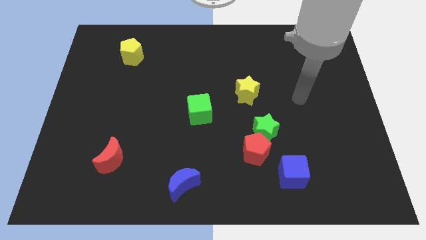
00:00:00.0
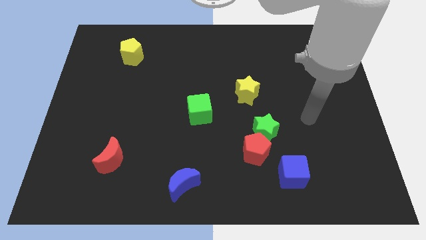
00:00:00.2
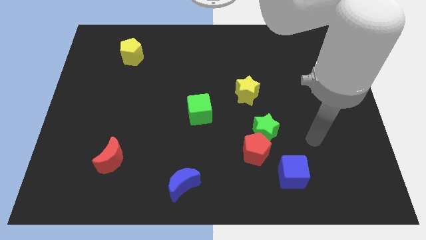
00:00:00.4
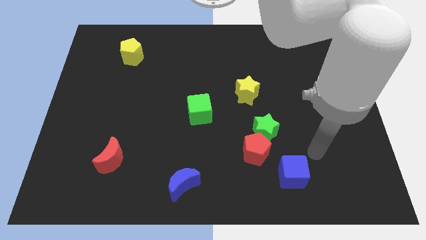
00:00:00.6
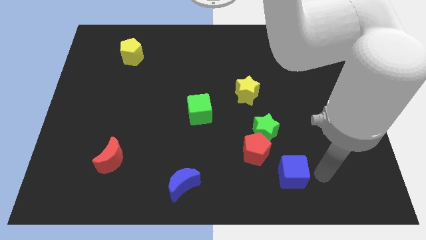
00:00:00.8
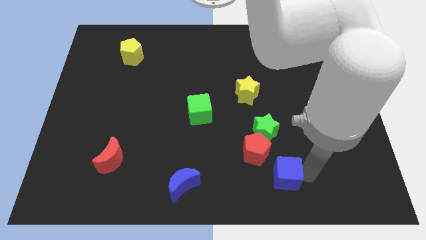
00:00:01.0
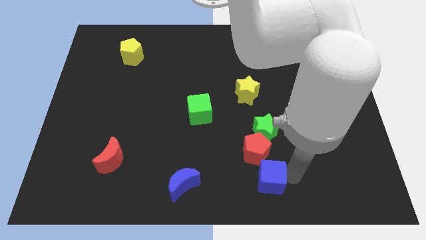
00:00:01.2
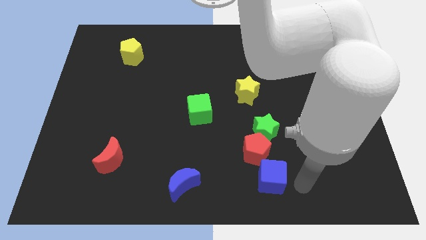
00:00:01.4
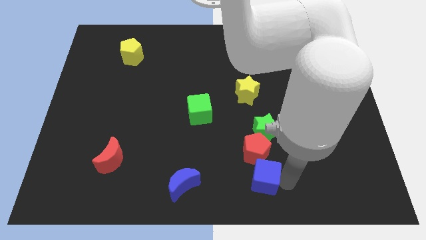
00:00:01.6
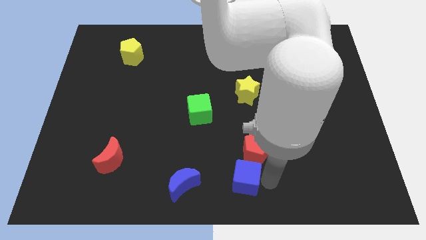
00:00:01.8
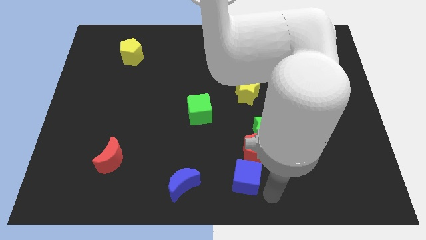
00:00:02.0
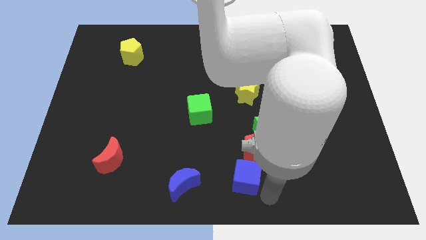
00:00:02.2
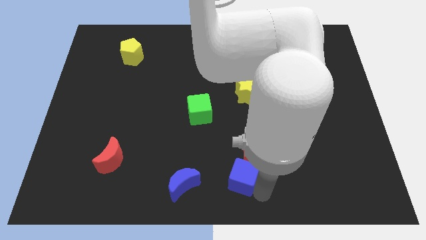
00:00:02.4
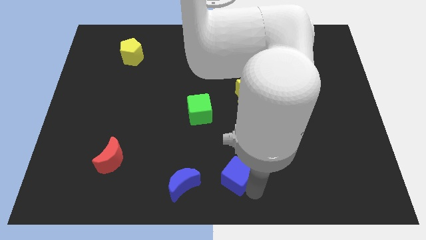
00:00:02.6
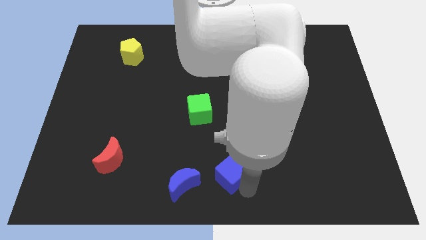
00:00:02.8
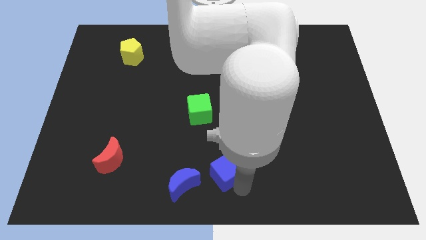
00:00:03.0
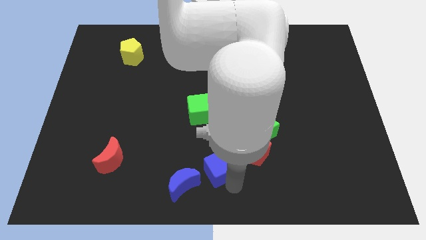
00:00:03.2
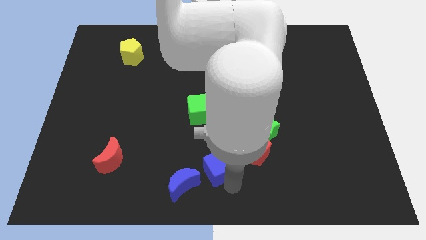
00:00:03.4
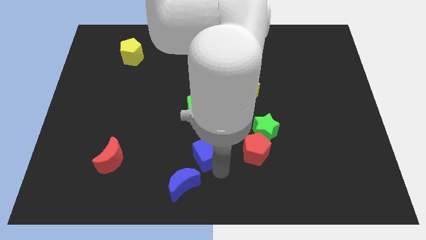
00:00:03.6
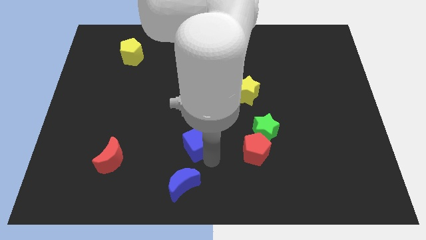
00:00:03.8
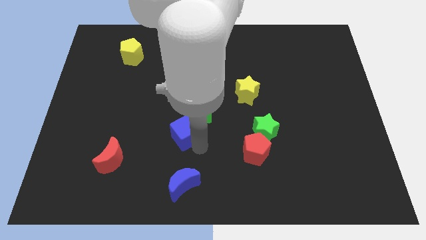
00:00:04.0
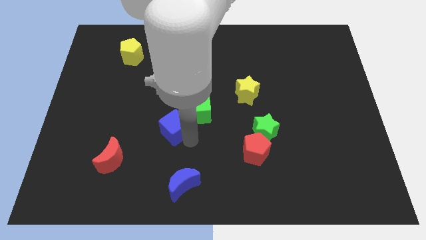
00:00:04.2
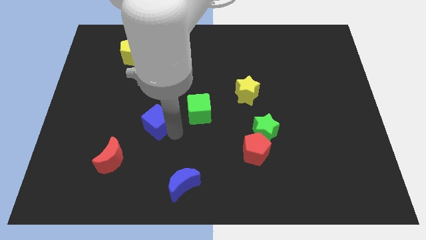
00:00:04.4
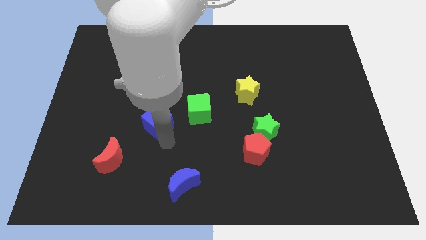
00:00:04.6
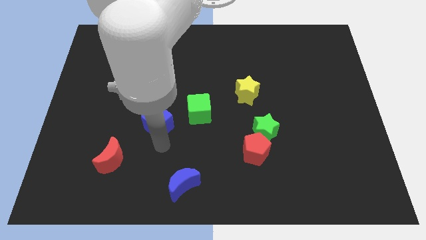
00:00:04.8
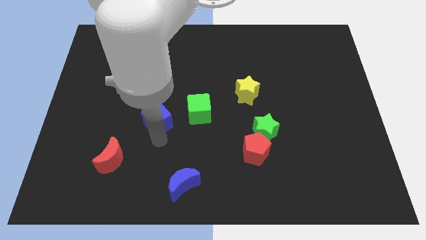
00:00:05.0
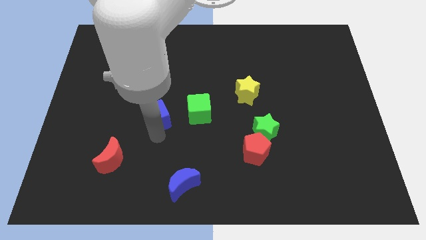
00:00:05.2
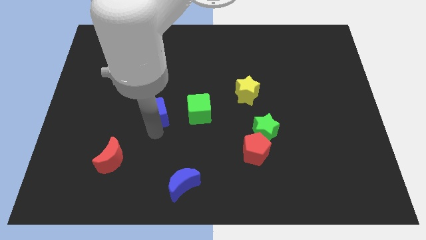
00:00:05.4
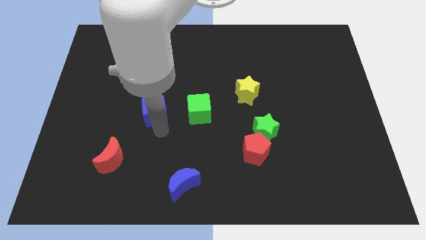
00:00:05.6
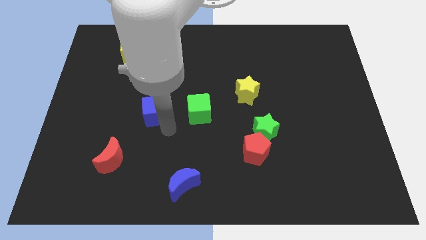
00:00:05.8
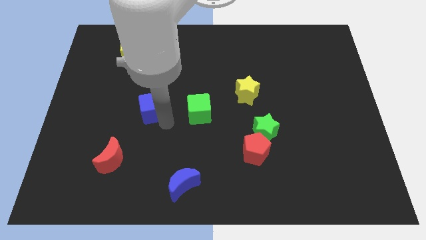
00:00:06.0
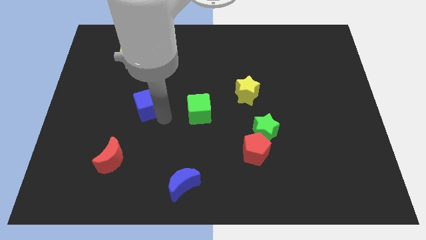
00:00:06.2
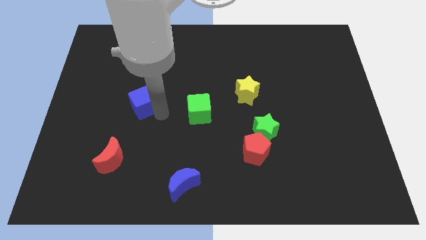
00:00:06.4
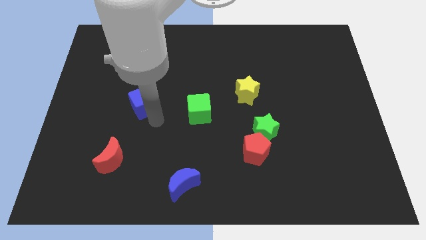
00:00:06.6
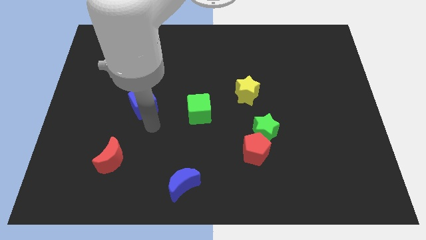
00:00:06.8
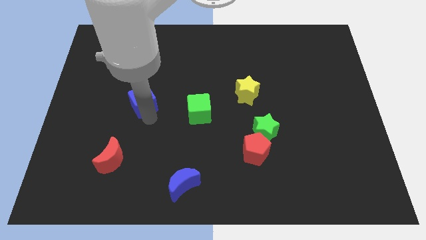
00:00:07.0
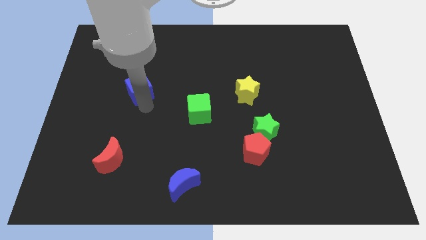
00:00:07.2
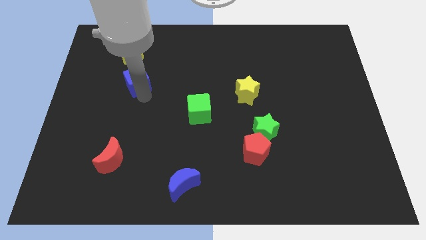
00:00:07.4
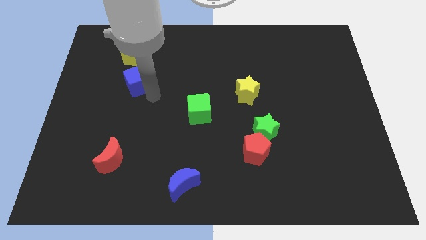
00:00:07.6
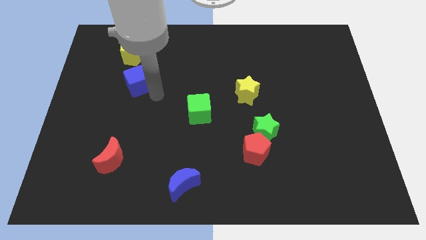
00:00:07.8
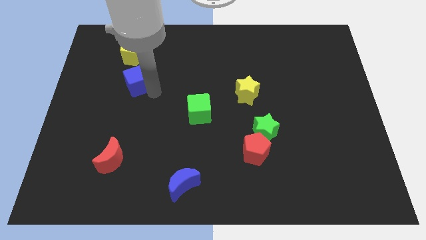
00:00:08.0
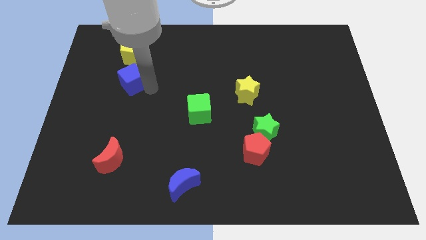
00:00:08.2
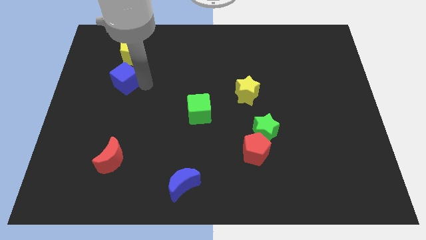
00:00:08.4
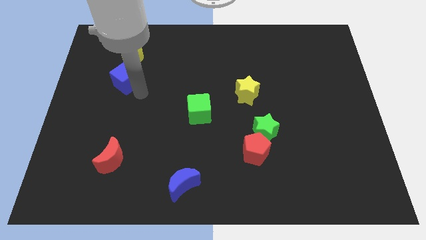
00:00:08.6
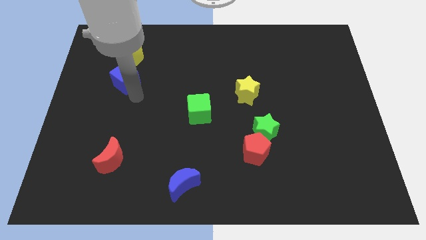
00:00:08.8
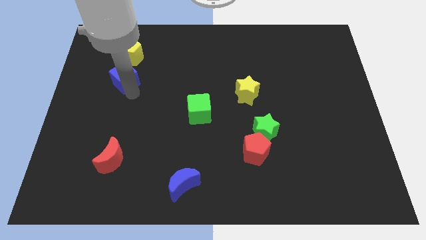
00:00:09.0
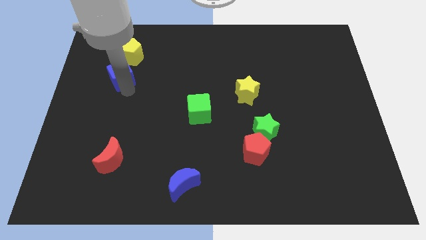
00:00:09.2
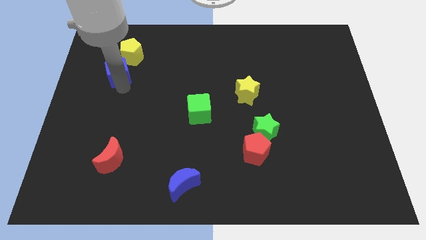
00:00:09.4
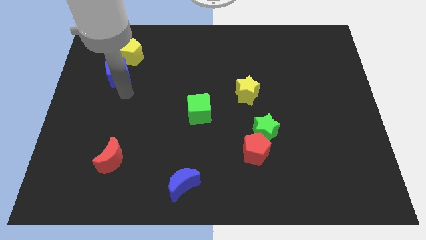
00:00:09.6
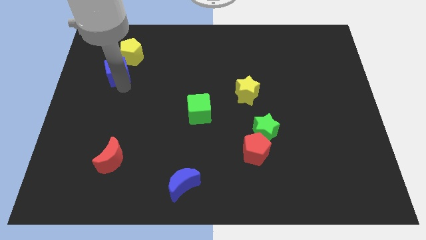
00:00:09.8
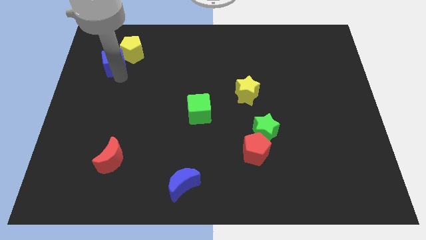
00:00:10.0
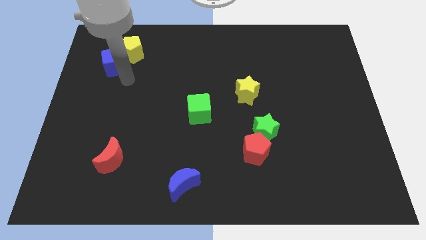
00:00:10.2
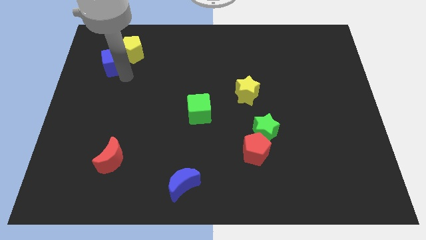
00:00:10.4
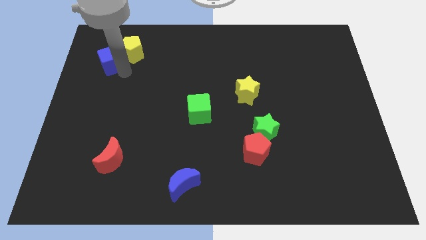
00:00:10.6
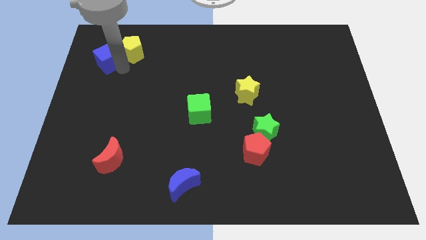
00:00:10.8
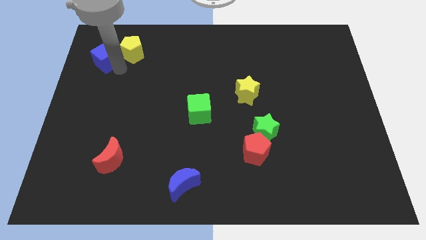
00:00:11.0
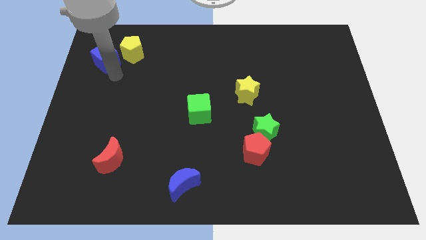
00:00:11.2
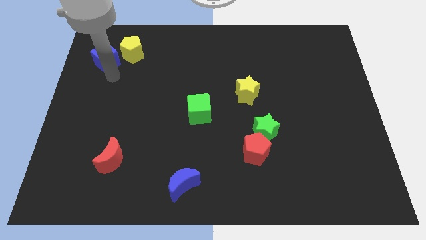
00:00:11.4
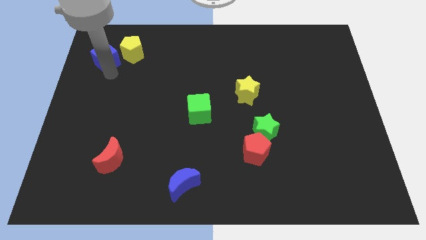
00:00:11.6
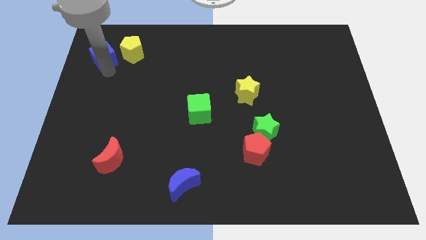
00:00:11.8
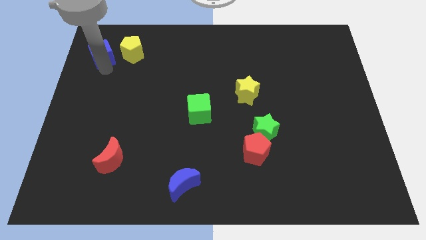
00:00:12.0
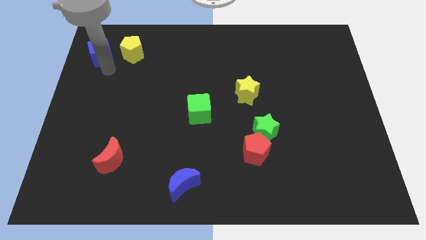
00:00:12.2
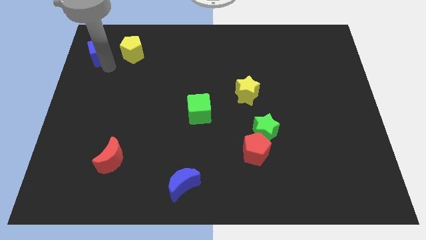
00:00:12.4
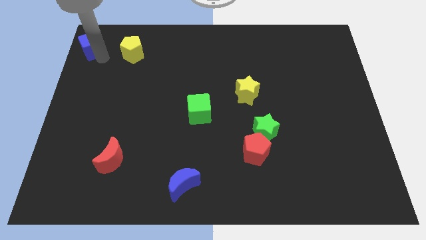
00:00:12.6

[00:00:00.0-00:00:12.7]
push the blue cube to the top left

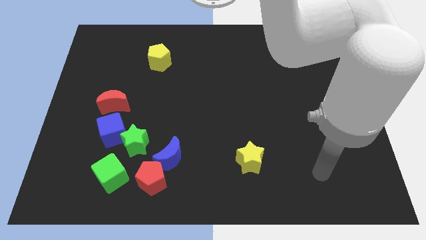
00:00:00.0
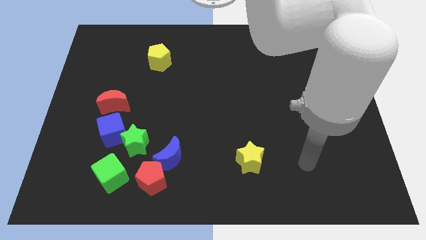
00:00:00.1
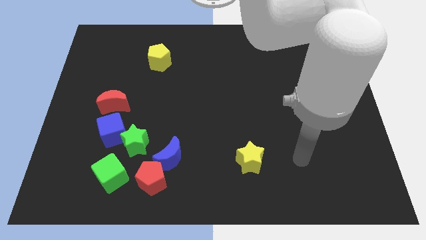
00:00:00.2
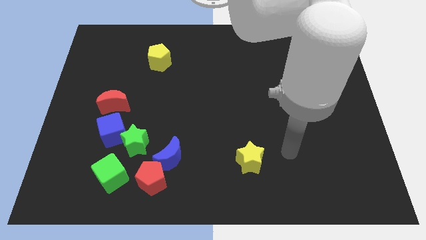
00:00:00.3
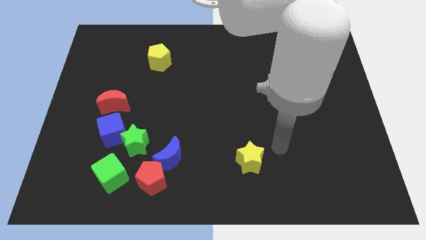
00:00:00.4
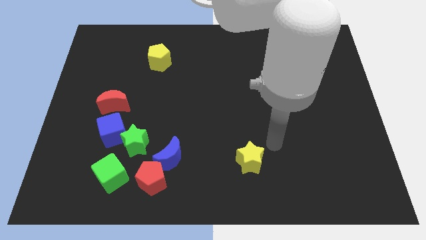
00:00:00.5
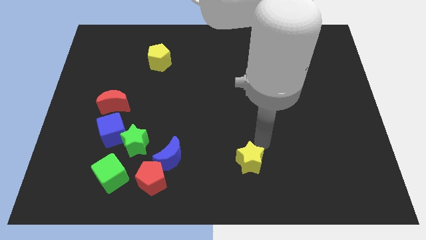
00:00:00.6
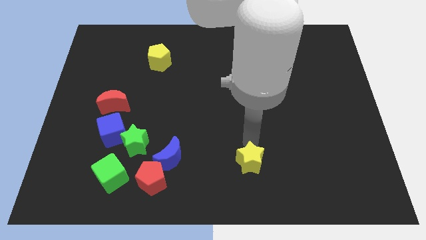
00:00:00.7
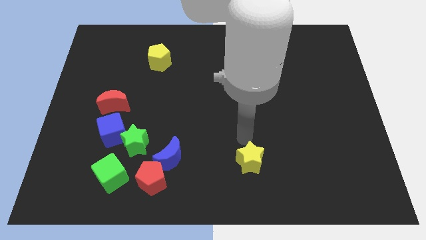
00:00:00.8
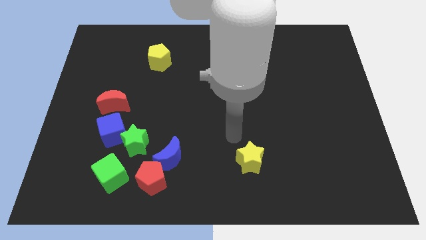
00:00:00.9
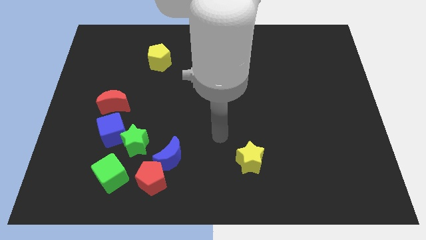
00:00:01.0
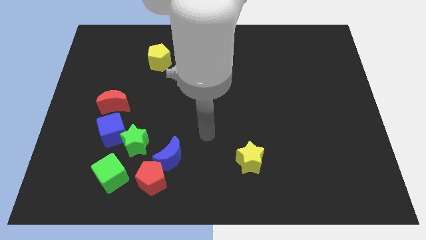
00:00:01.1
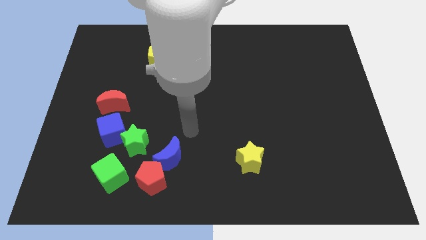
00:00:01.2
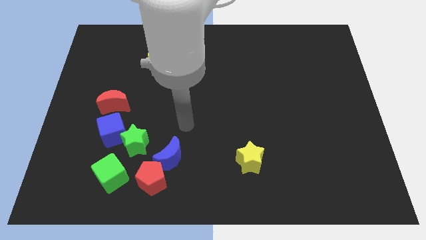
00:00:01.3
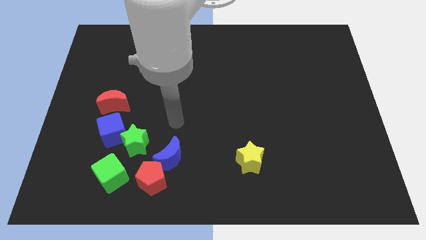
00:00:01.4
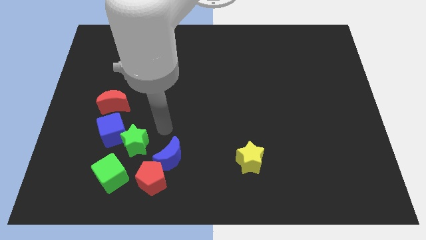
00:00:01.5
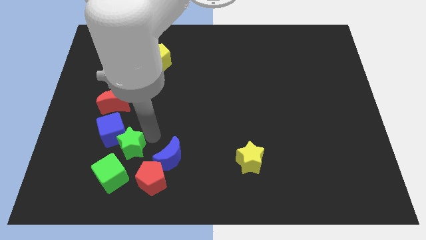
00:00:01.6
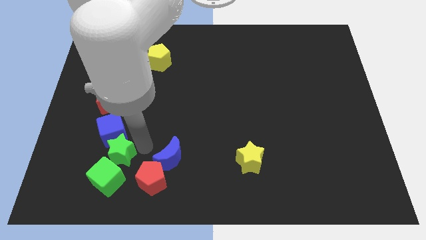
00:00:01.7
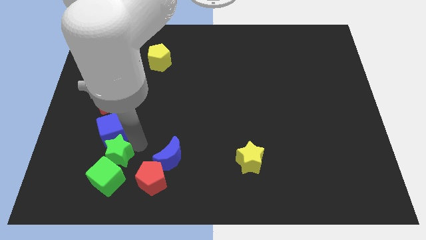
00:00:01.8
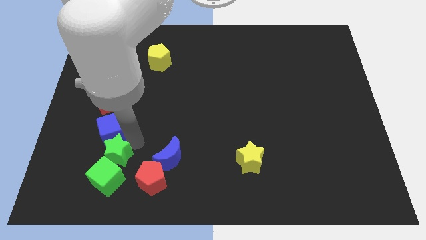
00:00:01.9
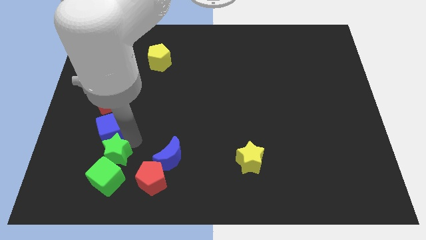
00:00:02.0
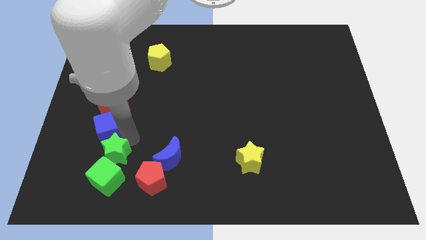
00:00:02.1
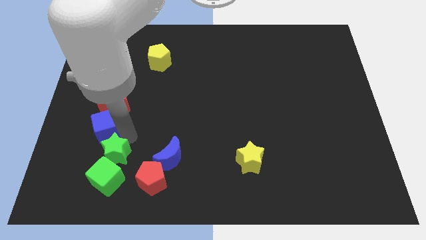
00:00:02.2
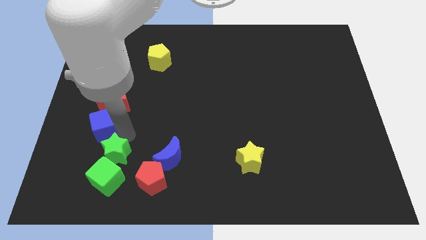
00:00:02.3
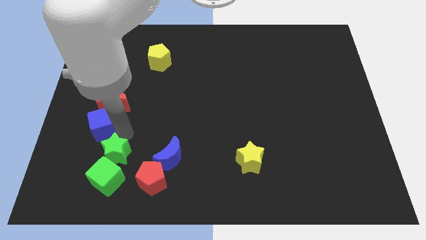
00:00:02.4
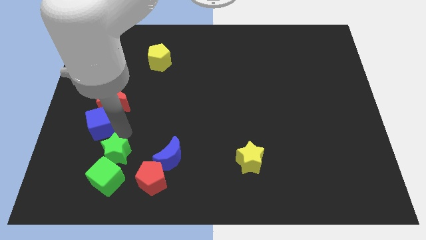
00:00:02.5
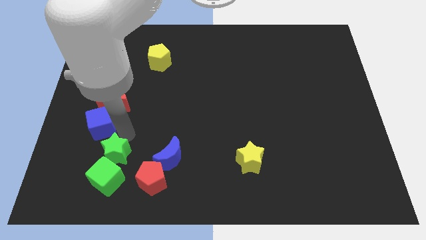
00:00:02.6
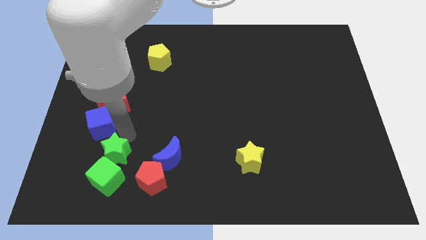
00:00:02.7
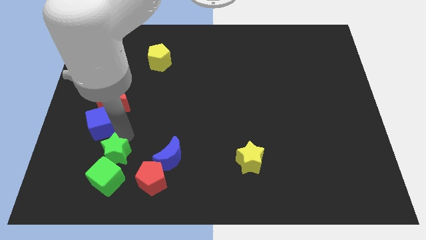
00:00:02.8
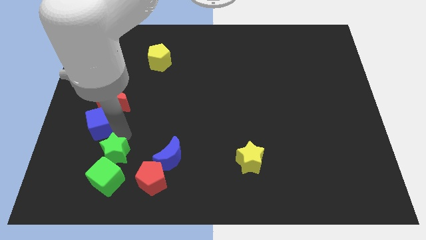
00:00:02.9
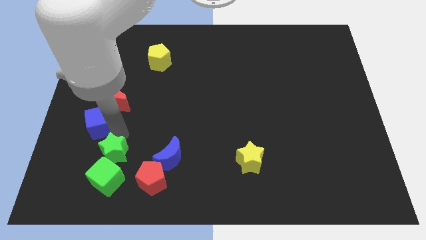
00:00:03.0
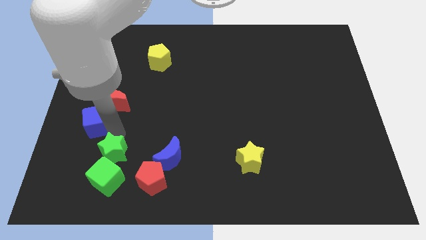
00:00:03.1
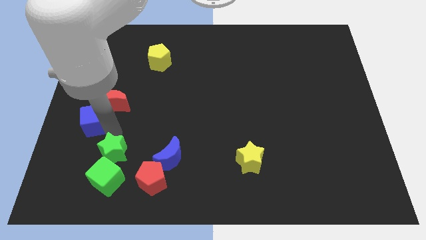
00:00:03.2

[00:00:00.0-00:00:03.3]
slide the blue cube to the left side
